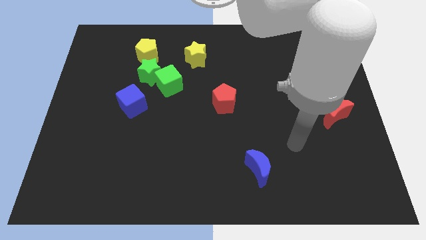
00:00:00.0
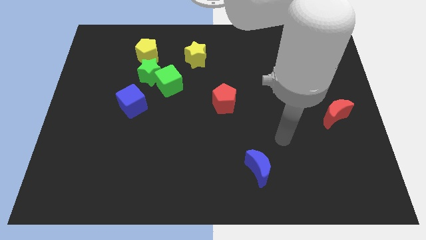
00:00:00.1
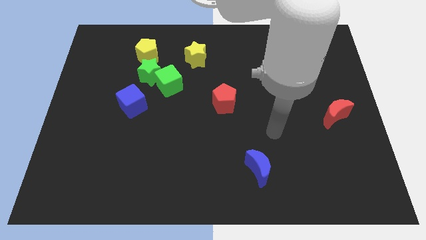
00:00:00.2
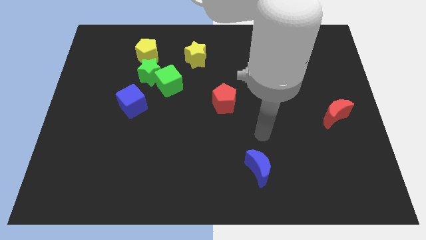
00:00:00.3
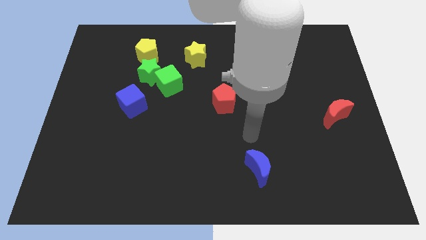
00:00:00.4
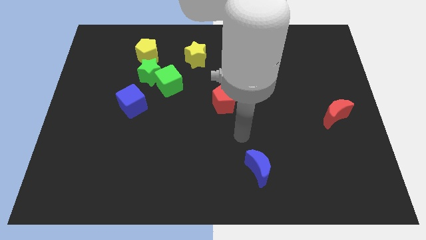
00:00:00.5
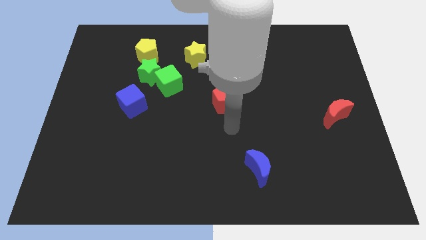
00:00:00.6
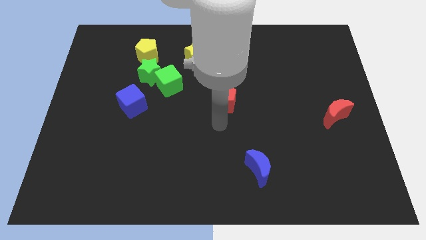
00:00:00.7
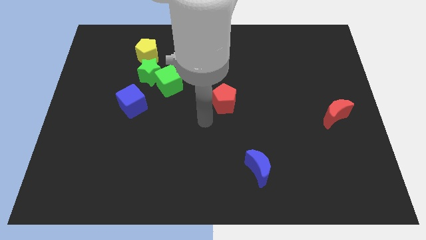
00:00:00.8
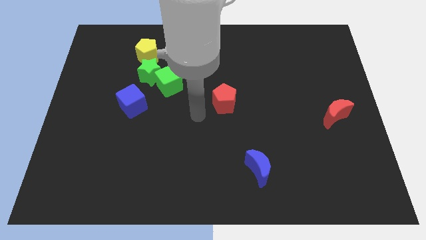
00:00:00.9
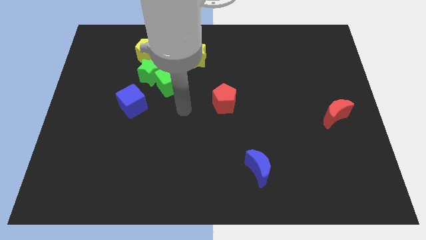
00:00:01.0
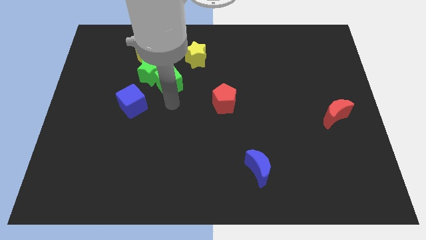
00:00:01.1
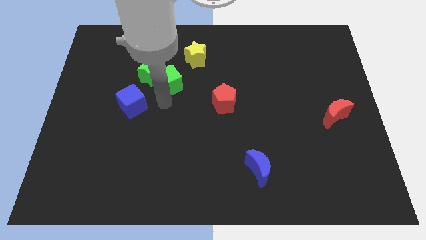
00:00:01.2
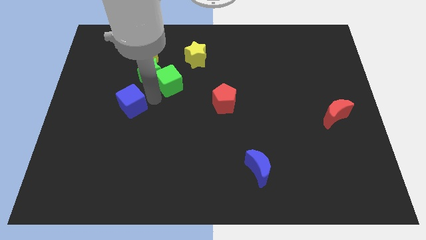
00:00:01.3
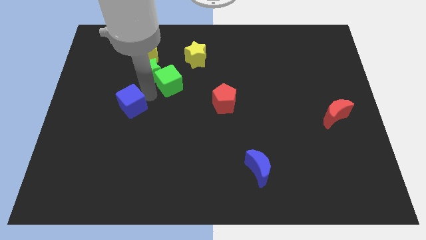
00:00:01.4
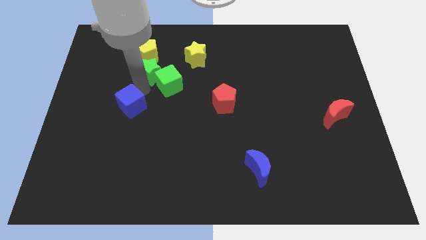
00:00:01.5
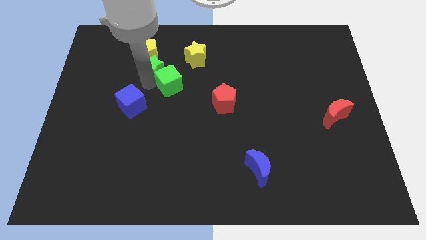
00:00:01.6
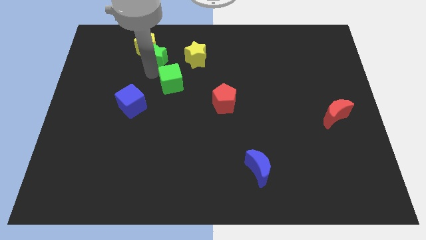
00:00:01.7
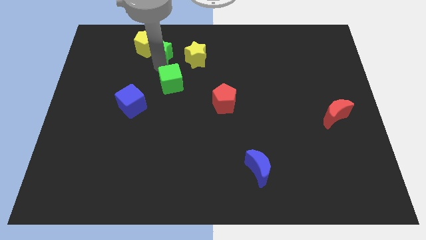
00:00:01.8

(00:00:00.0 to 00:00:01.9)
pull the green cube apart from the green star

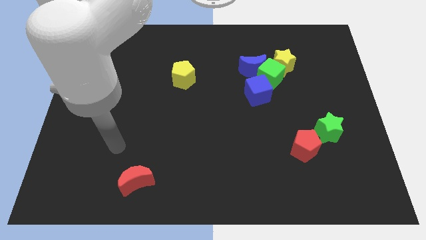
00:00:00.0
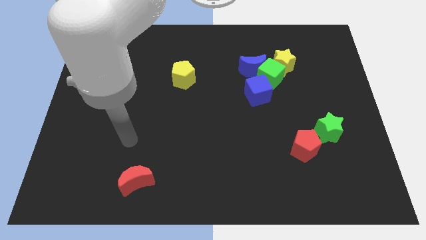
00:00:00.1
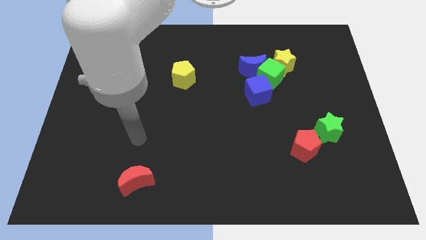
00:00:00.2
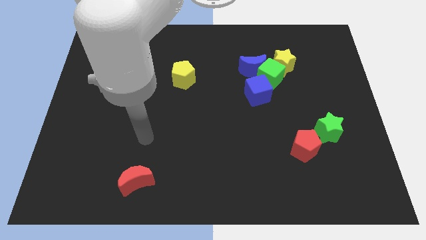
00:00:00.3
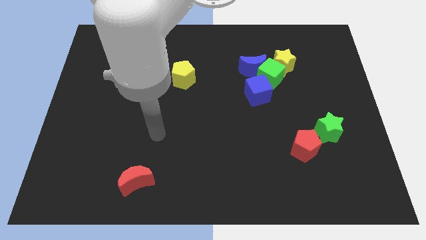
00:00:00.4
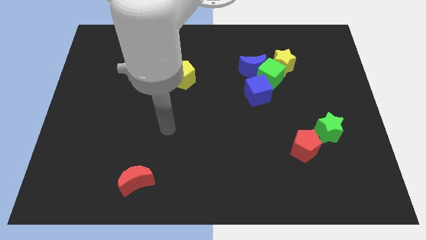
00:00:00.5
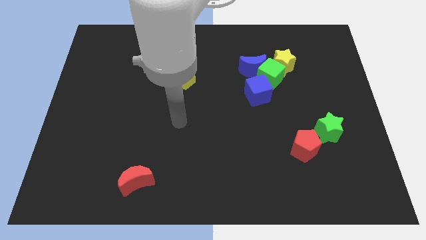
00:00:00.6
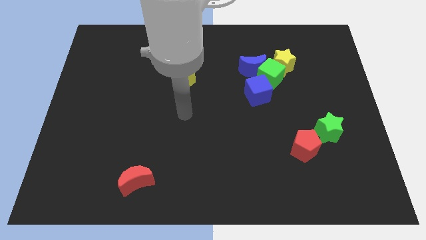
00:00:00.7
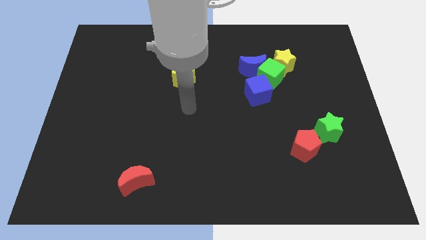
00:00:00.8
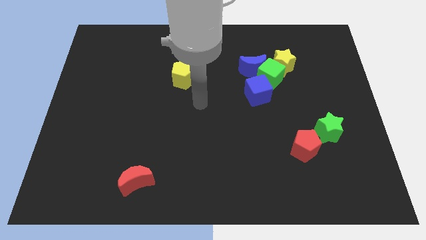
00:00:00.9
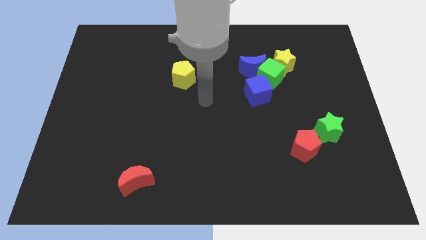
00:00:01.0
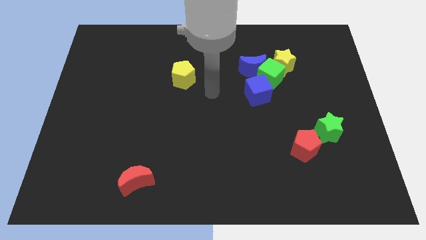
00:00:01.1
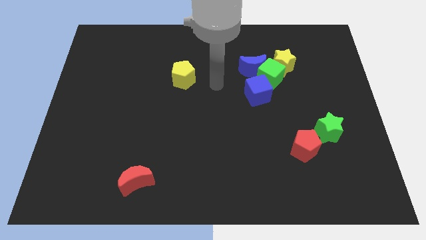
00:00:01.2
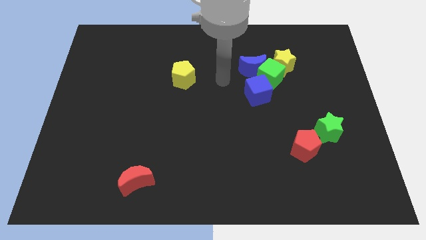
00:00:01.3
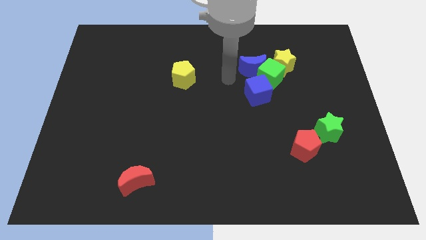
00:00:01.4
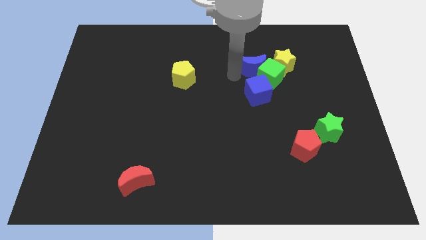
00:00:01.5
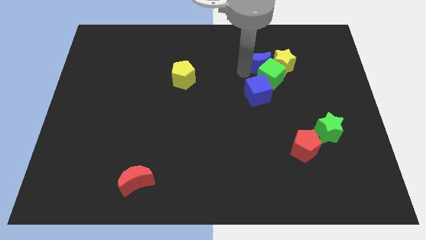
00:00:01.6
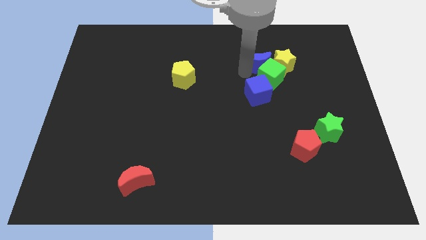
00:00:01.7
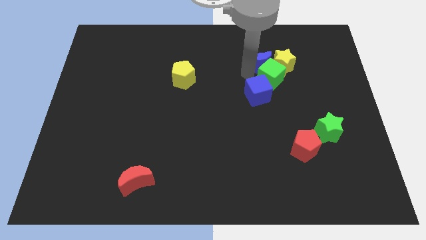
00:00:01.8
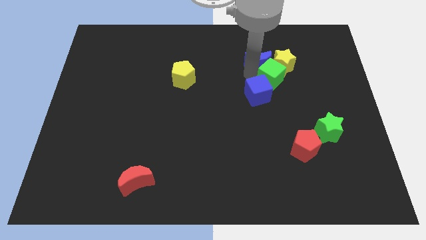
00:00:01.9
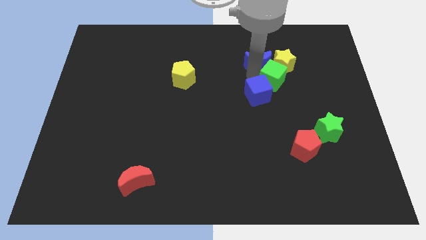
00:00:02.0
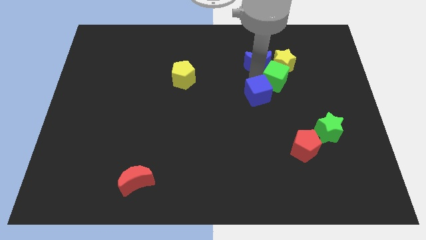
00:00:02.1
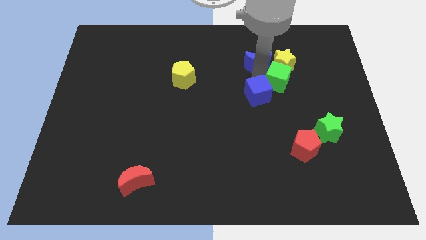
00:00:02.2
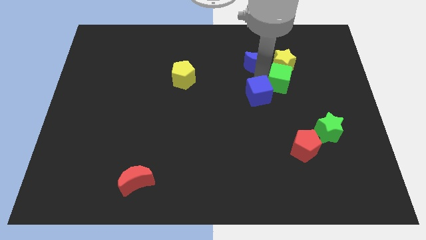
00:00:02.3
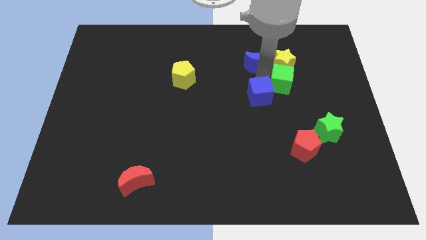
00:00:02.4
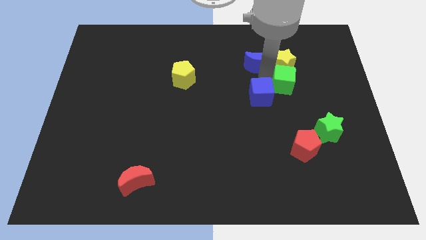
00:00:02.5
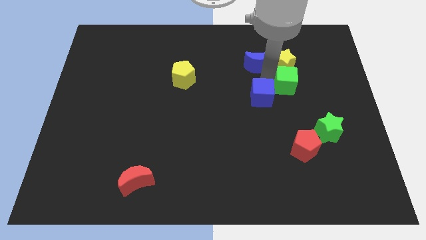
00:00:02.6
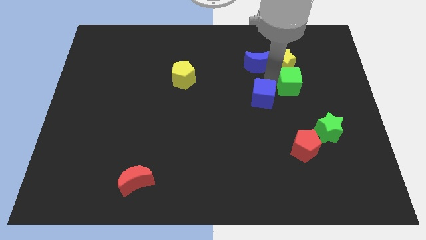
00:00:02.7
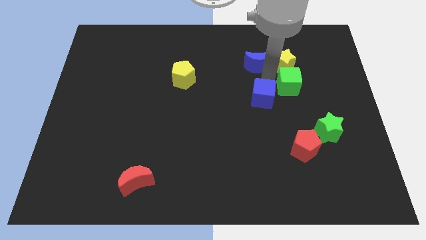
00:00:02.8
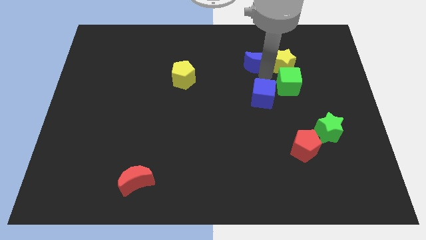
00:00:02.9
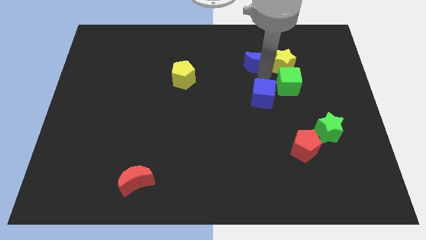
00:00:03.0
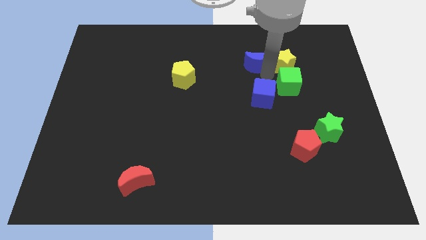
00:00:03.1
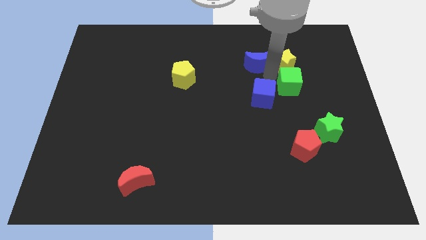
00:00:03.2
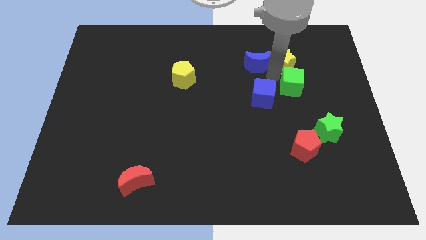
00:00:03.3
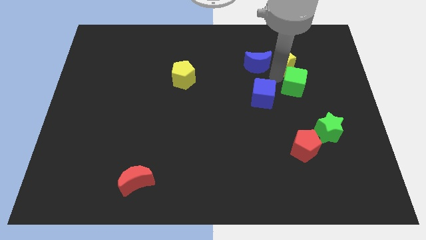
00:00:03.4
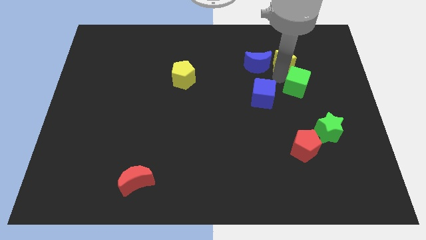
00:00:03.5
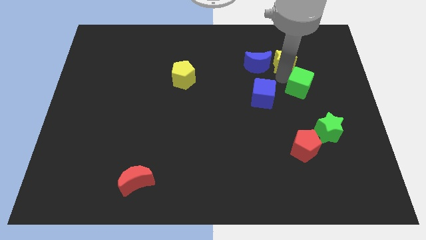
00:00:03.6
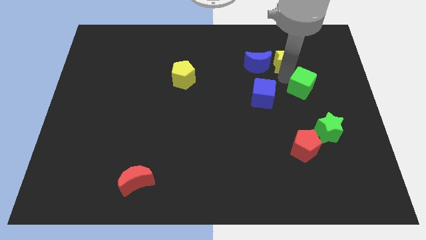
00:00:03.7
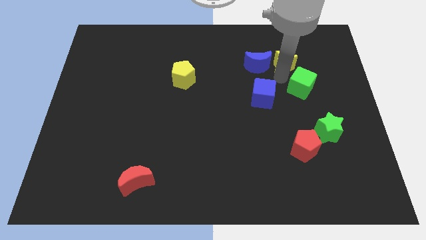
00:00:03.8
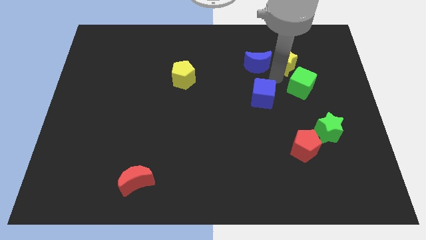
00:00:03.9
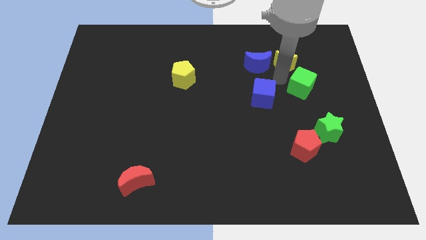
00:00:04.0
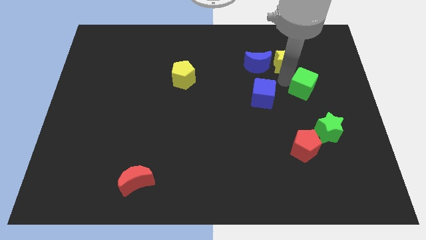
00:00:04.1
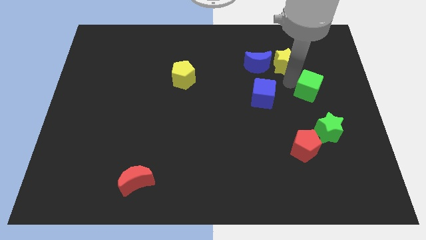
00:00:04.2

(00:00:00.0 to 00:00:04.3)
pull the green cube apart from the blue moon, yellow star, and blue cube

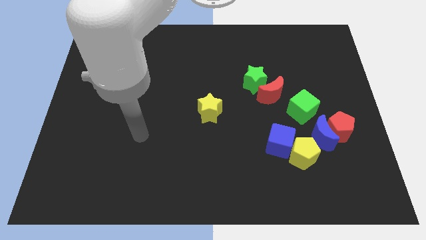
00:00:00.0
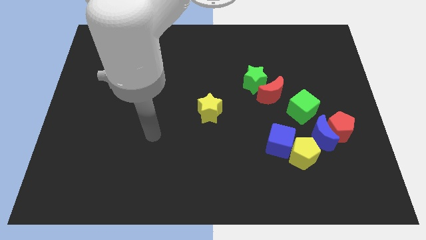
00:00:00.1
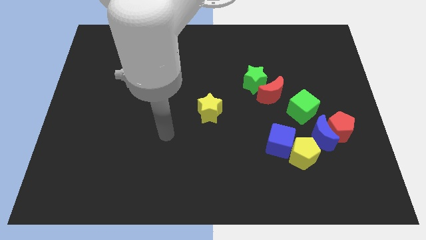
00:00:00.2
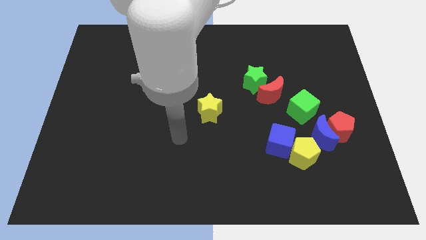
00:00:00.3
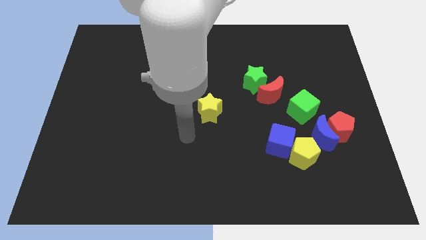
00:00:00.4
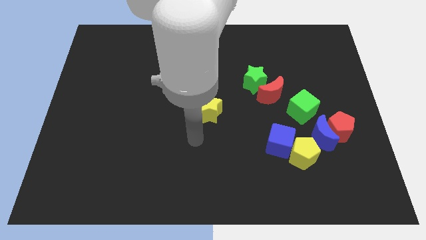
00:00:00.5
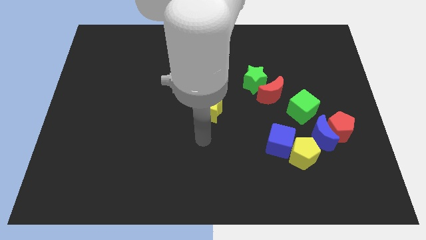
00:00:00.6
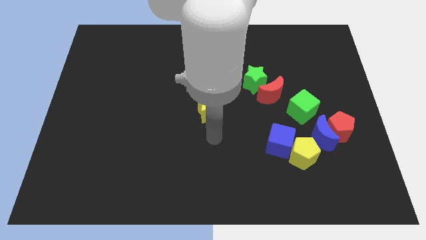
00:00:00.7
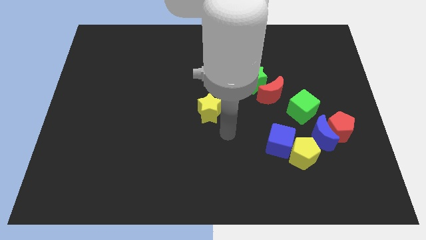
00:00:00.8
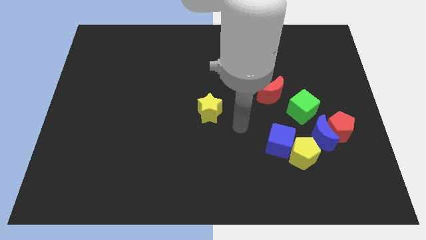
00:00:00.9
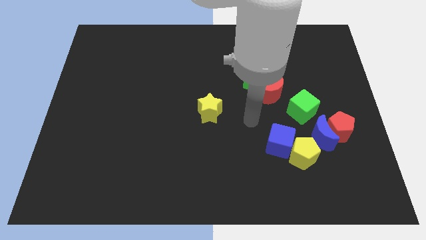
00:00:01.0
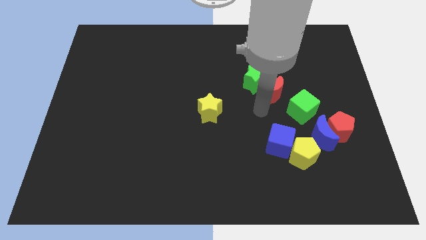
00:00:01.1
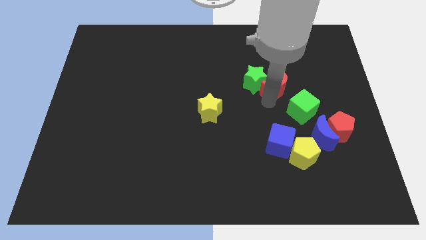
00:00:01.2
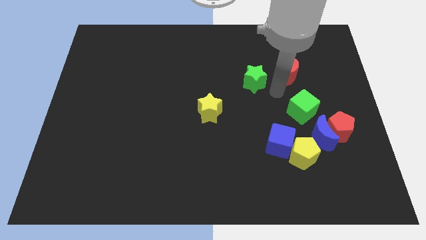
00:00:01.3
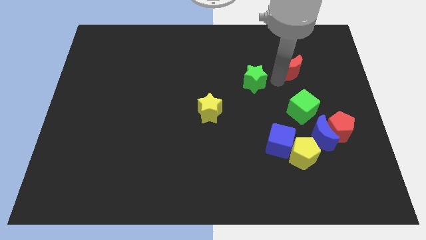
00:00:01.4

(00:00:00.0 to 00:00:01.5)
pull the green star apart from the red moon

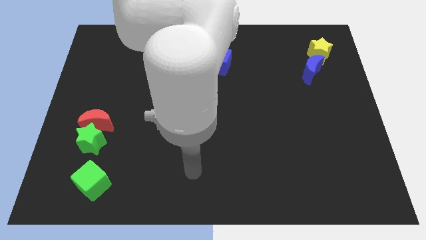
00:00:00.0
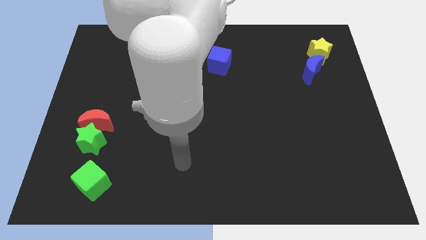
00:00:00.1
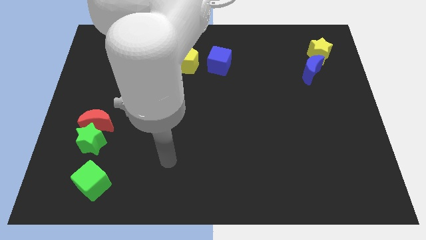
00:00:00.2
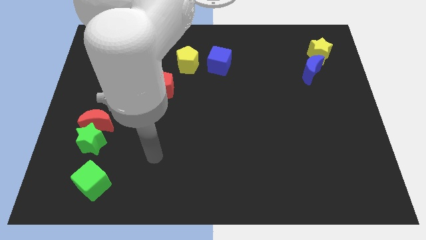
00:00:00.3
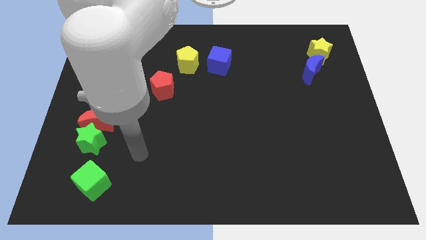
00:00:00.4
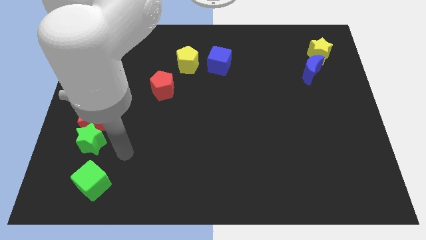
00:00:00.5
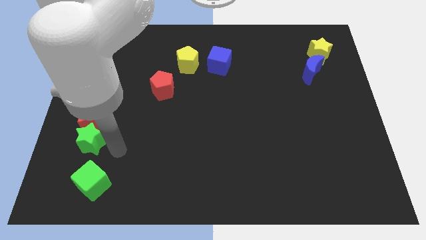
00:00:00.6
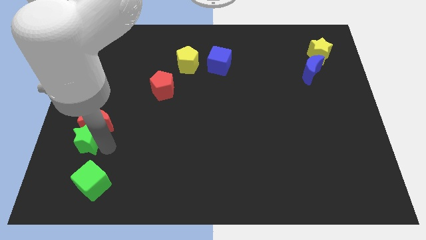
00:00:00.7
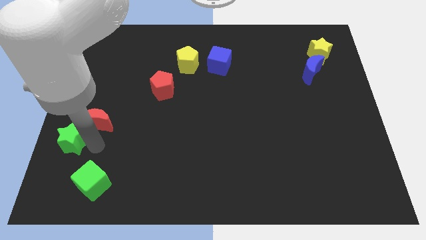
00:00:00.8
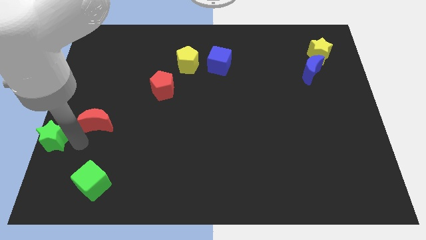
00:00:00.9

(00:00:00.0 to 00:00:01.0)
move the red moon away from the green star

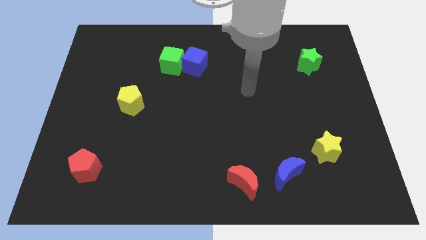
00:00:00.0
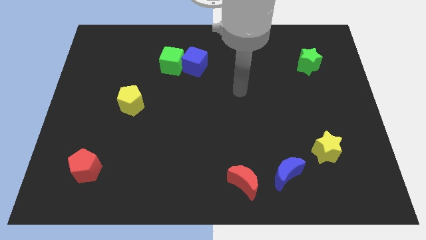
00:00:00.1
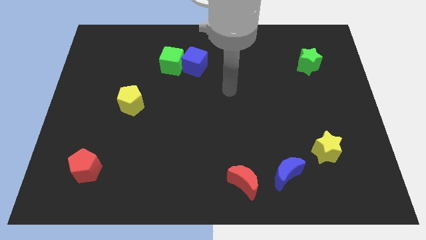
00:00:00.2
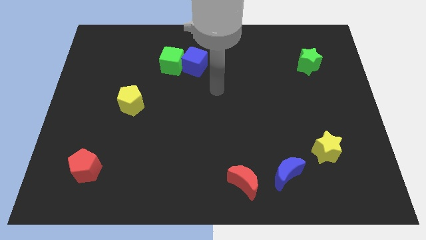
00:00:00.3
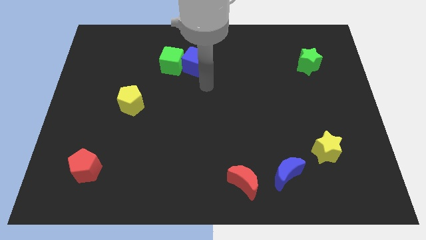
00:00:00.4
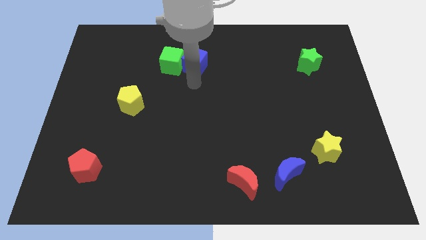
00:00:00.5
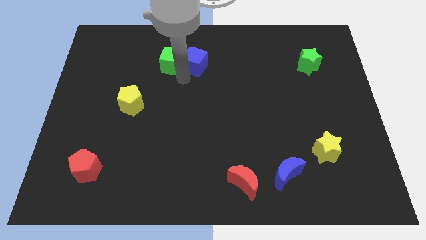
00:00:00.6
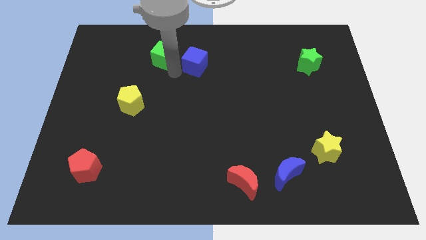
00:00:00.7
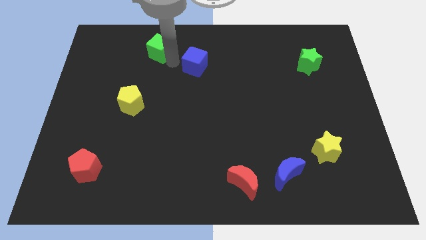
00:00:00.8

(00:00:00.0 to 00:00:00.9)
separate the blue cube from the green cube
